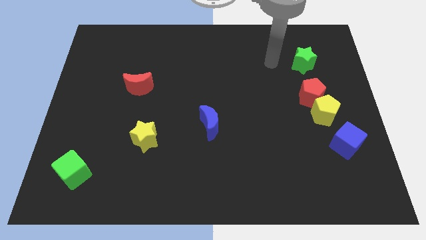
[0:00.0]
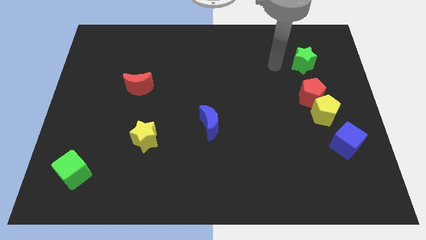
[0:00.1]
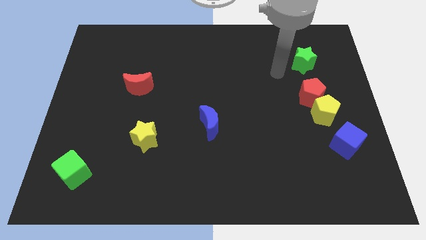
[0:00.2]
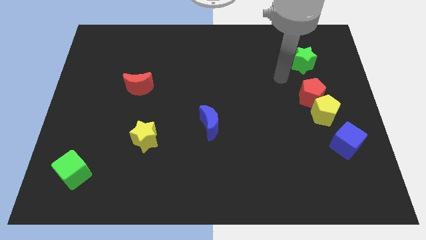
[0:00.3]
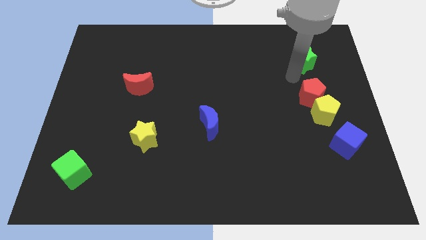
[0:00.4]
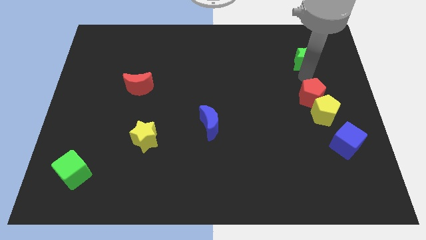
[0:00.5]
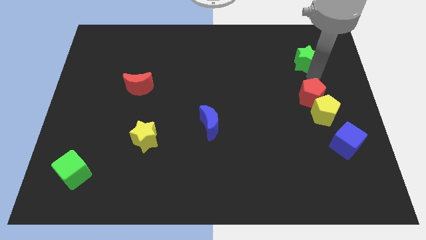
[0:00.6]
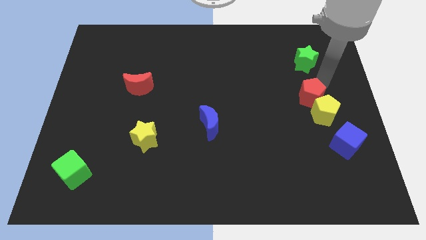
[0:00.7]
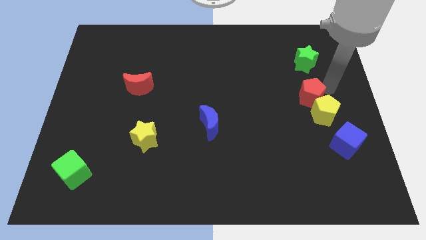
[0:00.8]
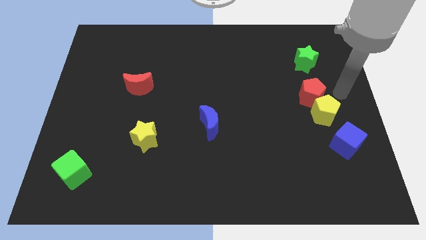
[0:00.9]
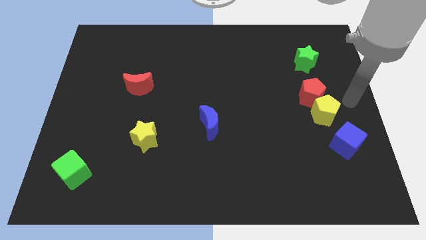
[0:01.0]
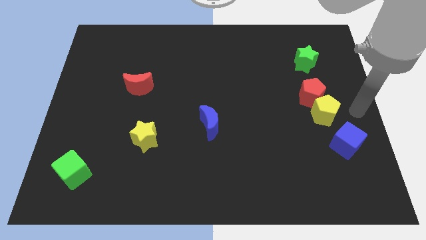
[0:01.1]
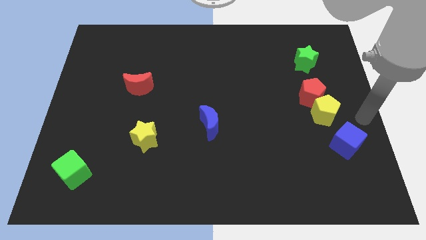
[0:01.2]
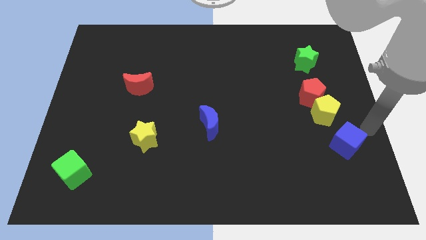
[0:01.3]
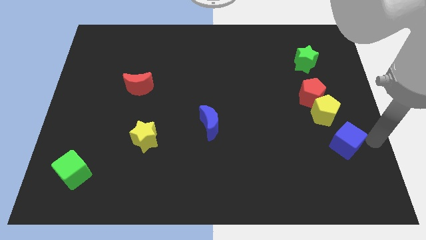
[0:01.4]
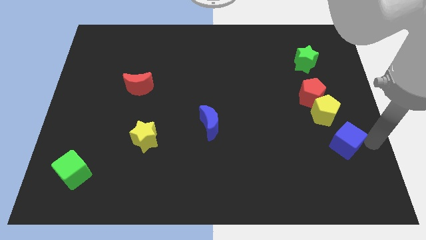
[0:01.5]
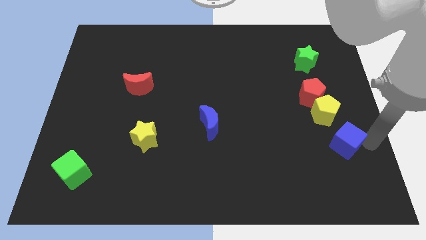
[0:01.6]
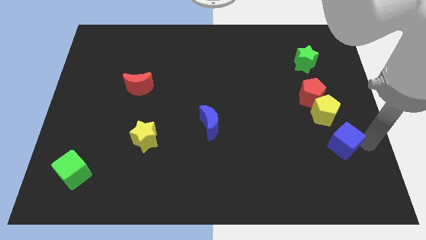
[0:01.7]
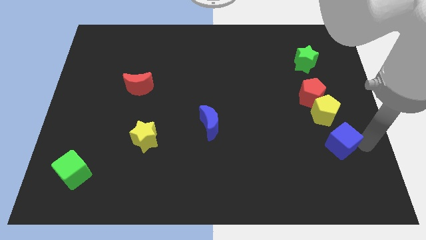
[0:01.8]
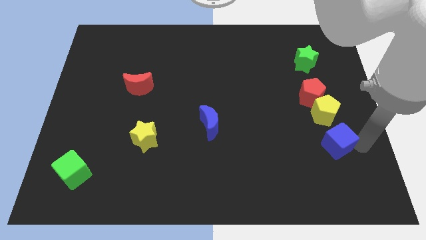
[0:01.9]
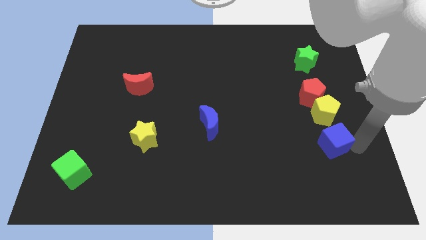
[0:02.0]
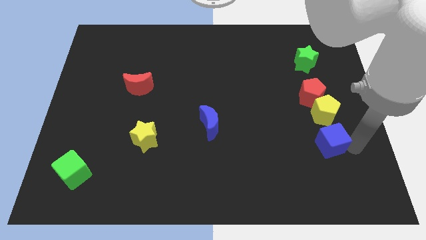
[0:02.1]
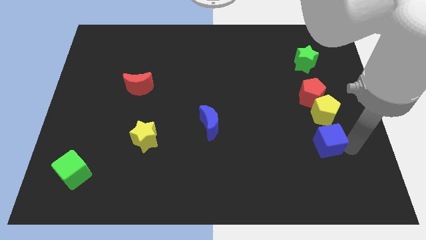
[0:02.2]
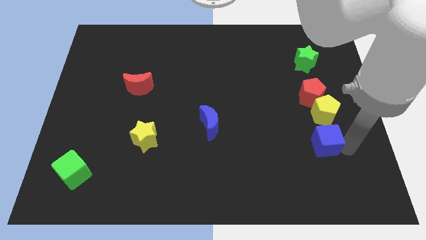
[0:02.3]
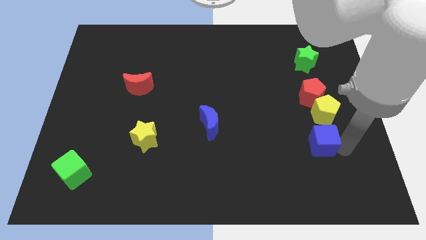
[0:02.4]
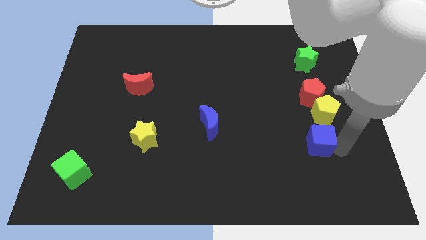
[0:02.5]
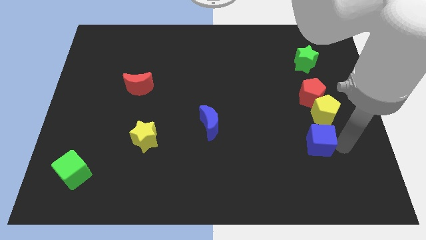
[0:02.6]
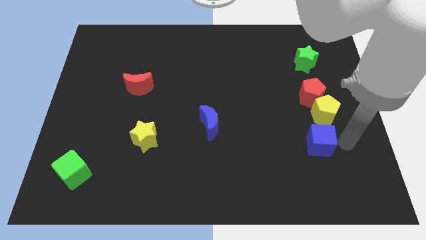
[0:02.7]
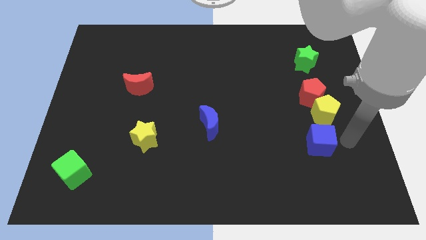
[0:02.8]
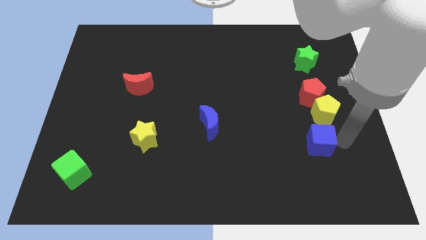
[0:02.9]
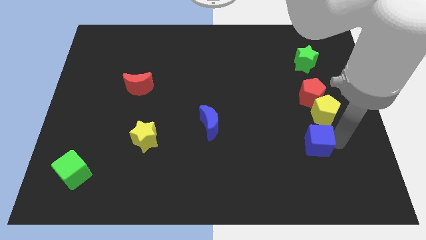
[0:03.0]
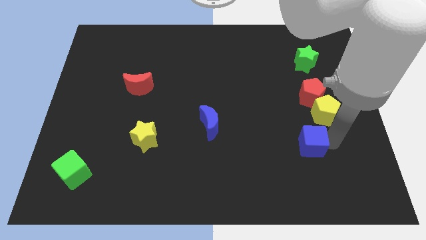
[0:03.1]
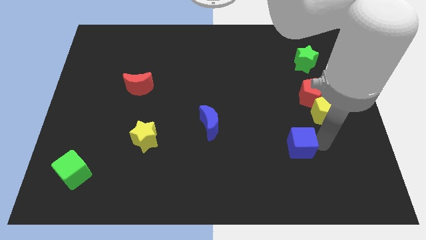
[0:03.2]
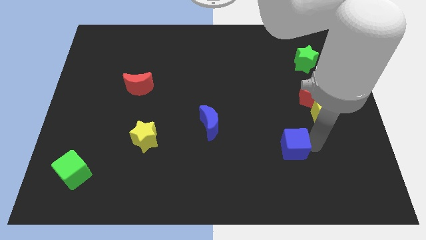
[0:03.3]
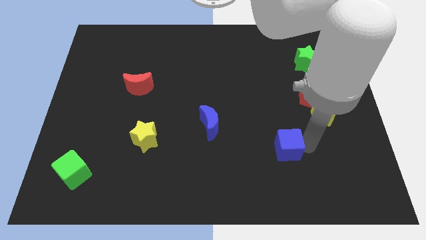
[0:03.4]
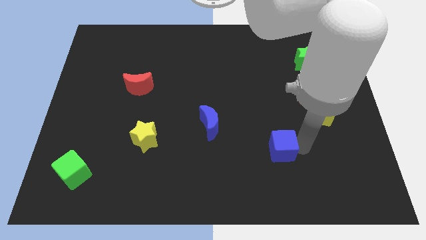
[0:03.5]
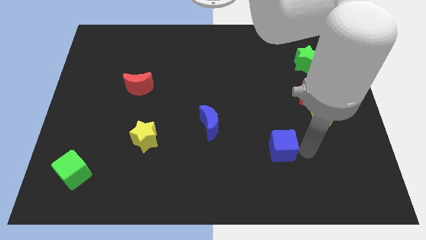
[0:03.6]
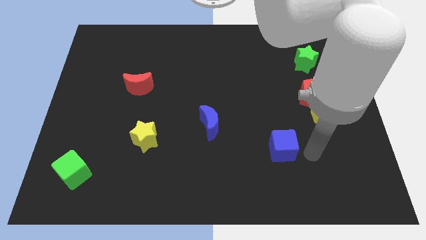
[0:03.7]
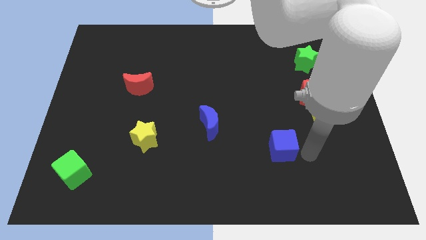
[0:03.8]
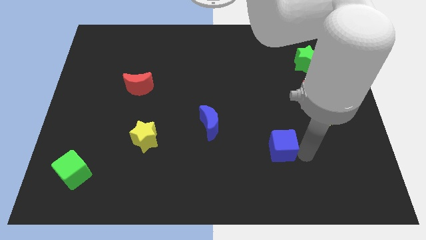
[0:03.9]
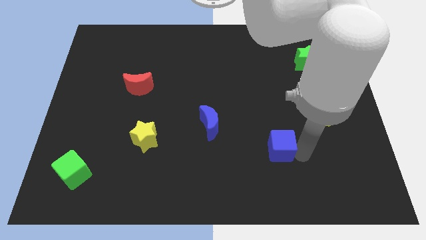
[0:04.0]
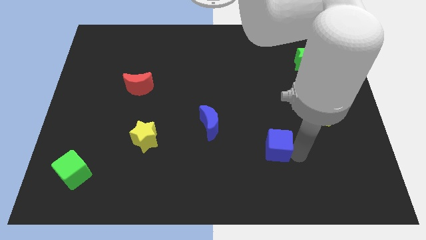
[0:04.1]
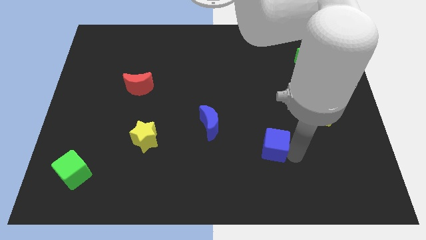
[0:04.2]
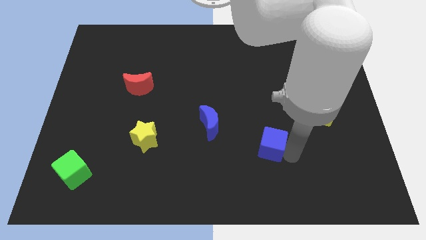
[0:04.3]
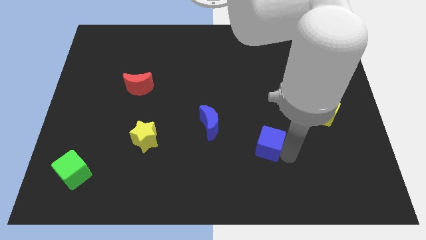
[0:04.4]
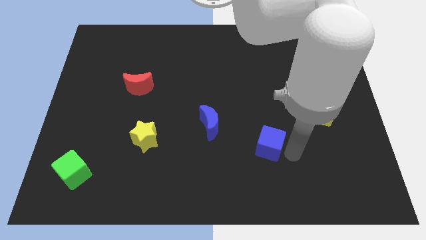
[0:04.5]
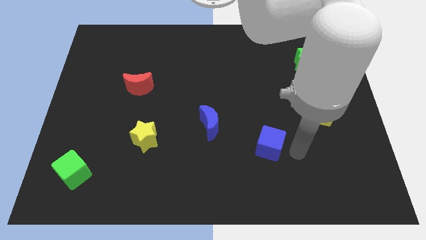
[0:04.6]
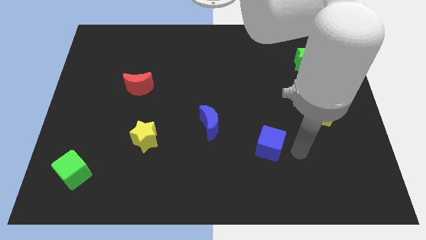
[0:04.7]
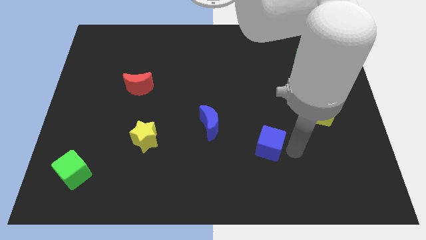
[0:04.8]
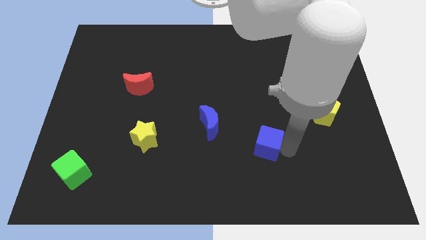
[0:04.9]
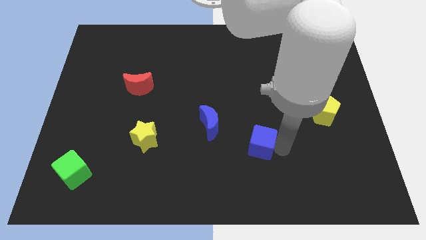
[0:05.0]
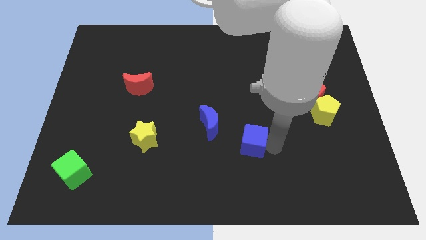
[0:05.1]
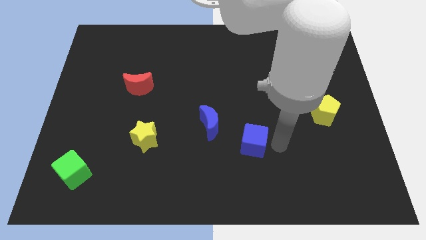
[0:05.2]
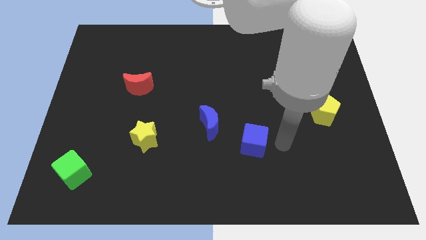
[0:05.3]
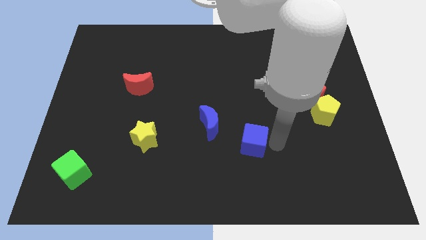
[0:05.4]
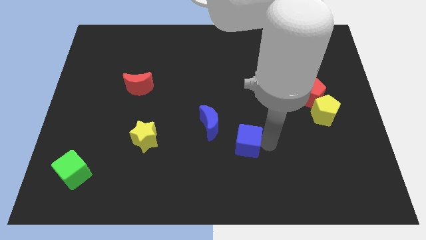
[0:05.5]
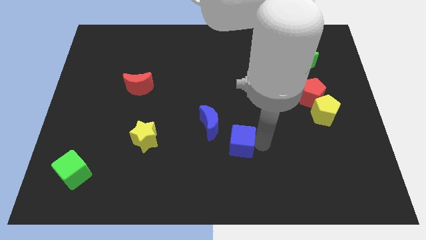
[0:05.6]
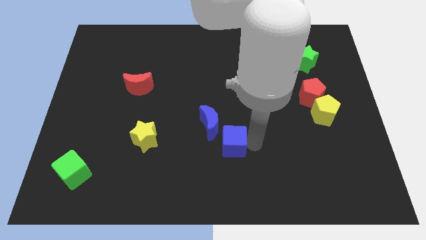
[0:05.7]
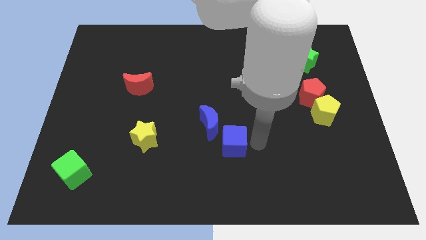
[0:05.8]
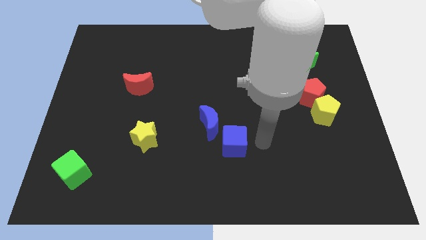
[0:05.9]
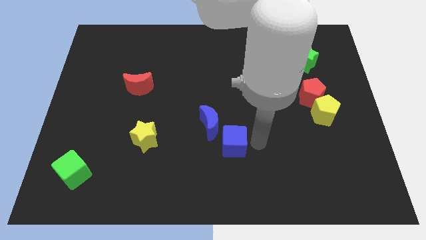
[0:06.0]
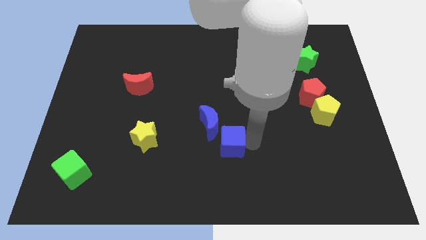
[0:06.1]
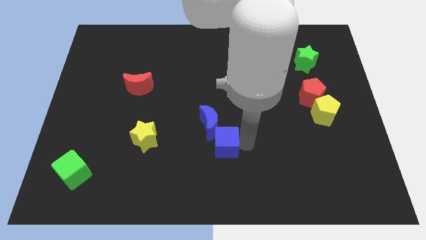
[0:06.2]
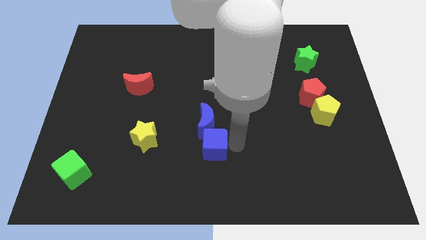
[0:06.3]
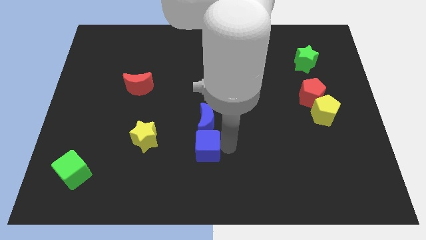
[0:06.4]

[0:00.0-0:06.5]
slide the blue cube to the bottom left side of the blue moon
